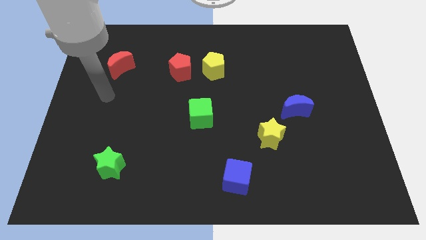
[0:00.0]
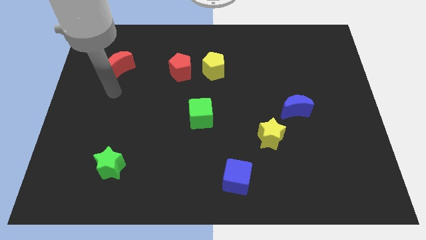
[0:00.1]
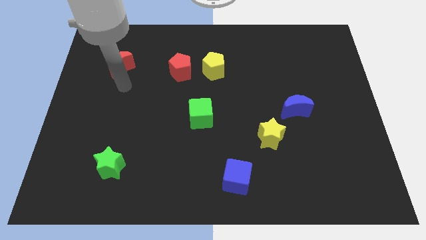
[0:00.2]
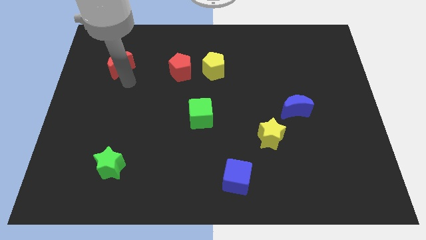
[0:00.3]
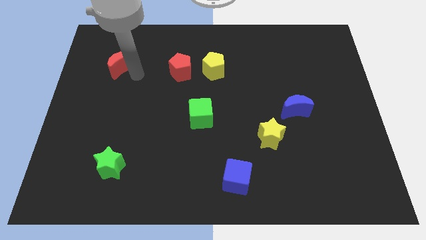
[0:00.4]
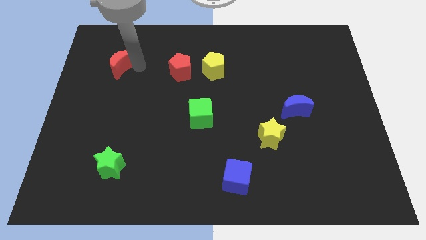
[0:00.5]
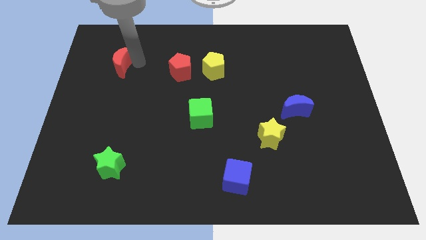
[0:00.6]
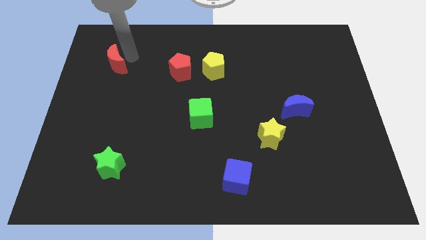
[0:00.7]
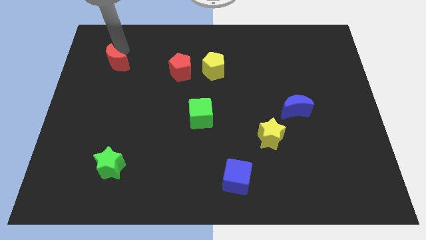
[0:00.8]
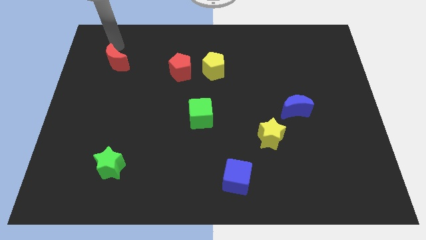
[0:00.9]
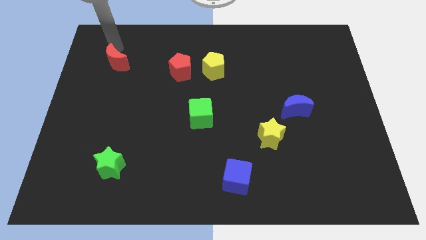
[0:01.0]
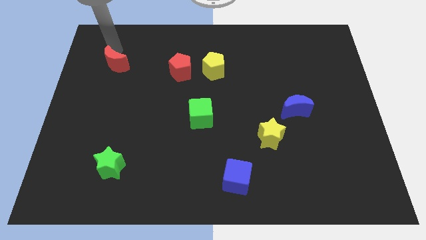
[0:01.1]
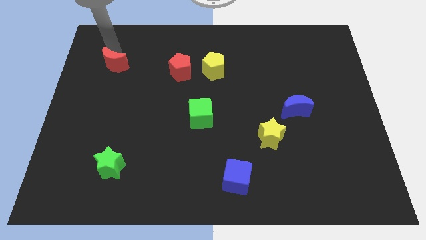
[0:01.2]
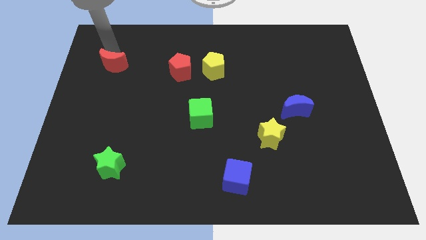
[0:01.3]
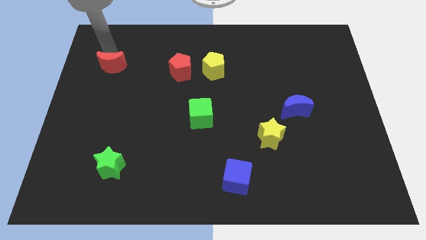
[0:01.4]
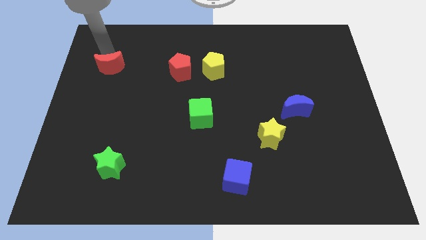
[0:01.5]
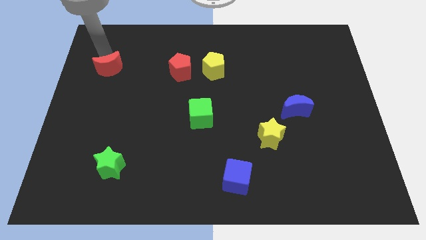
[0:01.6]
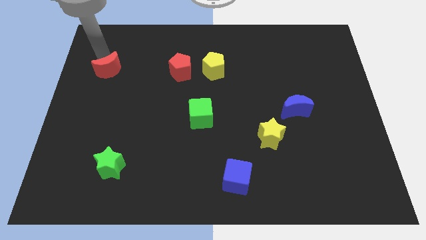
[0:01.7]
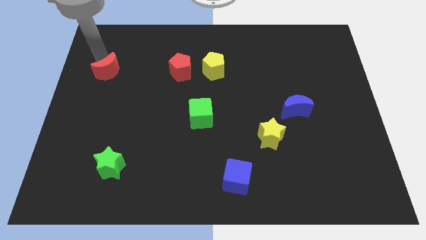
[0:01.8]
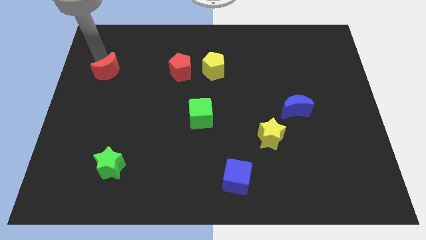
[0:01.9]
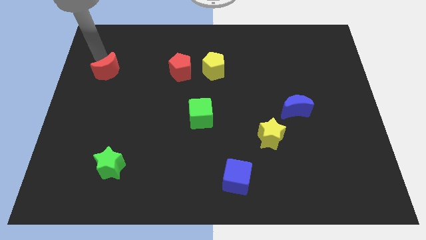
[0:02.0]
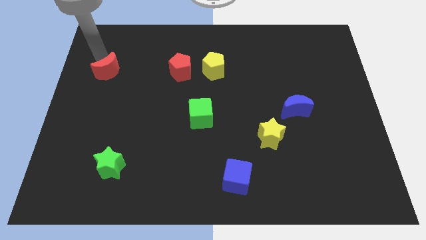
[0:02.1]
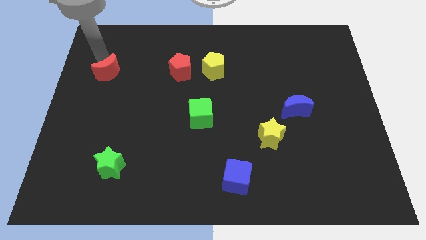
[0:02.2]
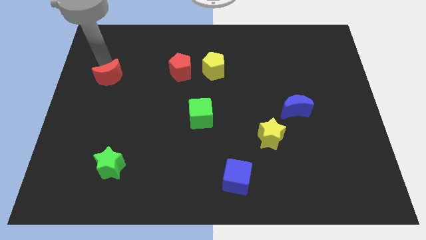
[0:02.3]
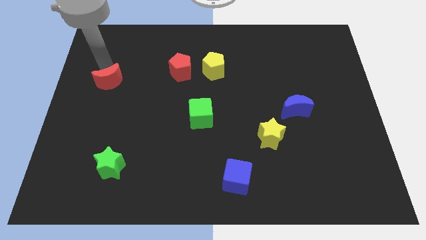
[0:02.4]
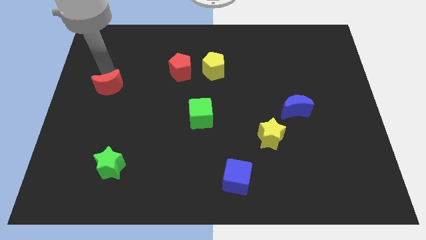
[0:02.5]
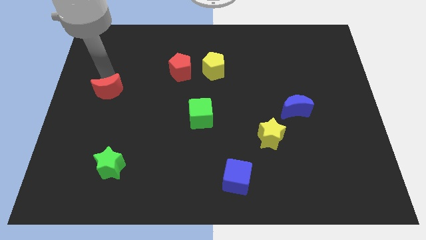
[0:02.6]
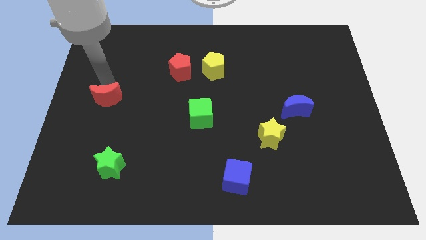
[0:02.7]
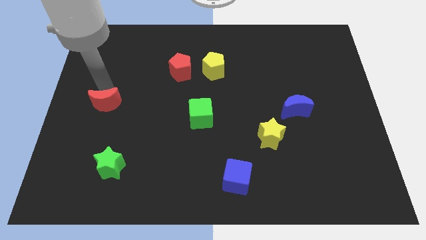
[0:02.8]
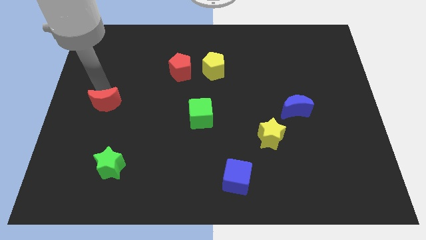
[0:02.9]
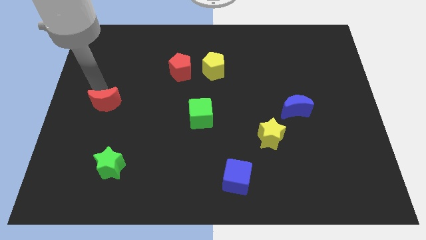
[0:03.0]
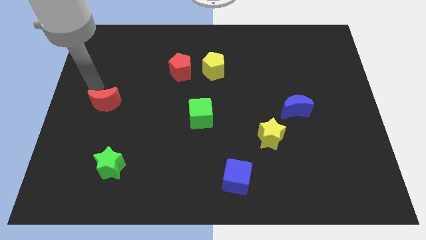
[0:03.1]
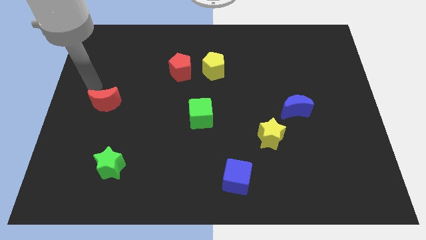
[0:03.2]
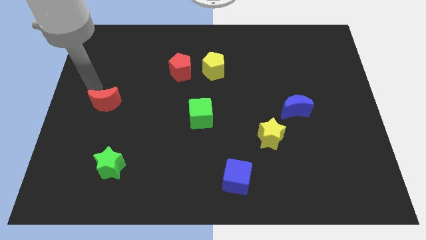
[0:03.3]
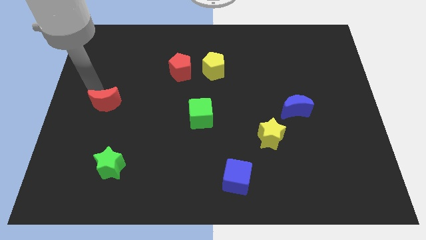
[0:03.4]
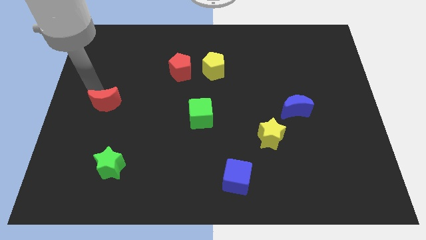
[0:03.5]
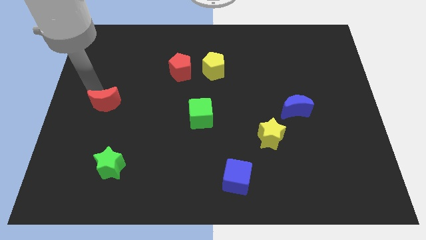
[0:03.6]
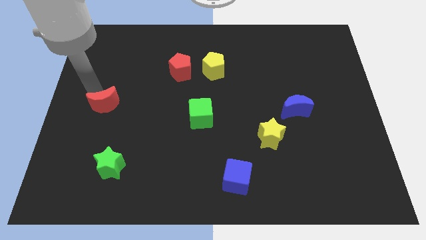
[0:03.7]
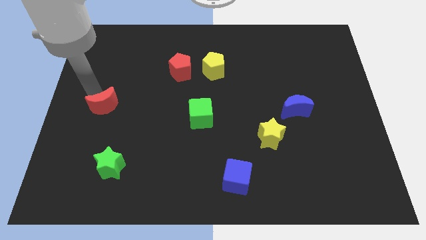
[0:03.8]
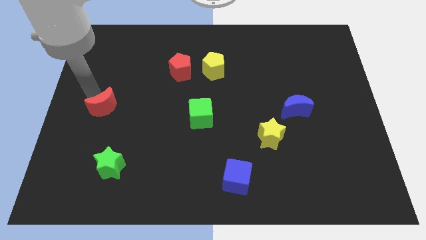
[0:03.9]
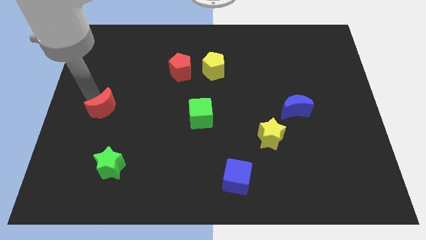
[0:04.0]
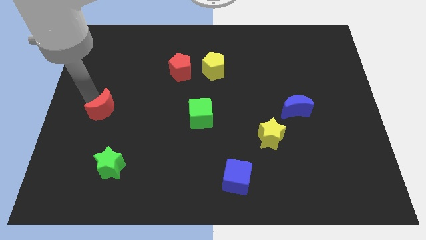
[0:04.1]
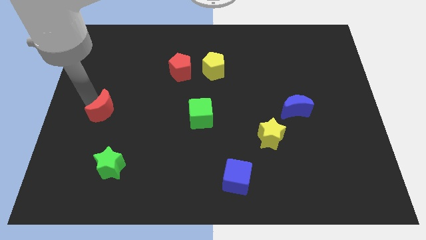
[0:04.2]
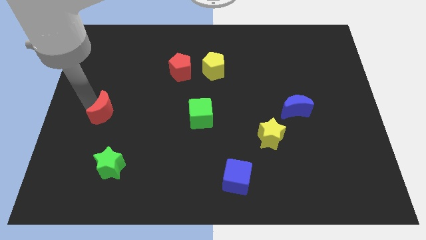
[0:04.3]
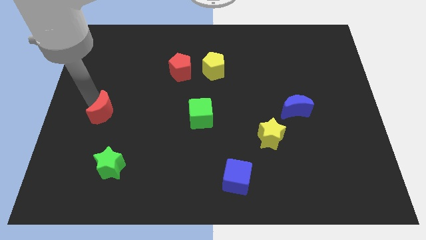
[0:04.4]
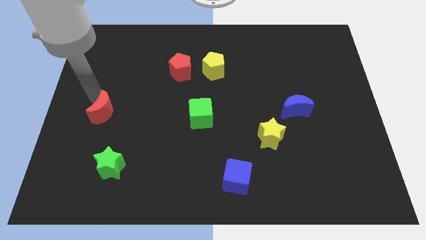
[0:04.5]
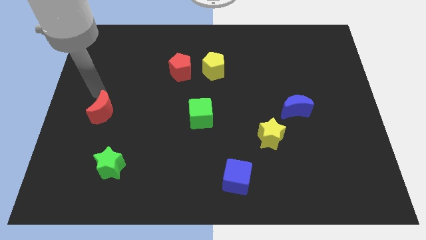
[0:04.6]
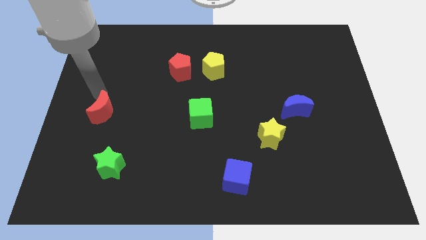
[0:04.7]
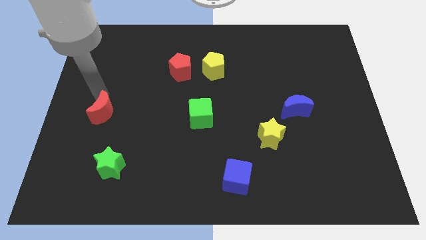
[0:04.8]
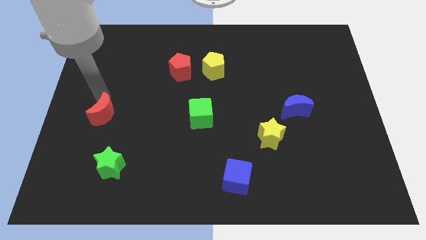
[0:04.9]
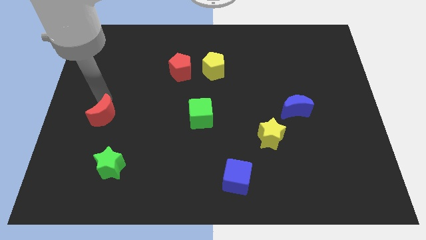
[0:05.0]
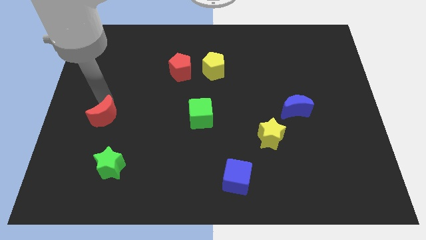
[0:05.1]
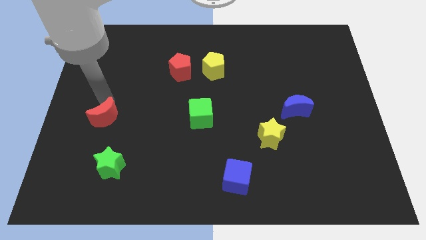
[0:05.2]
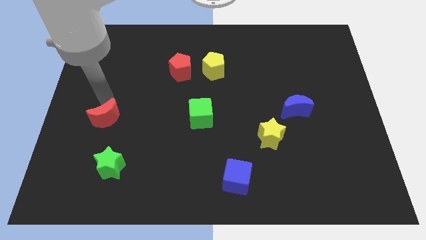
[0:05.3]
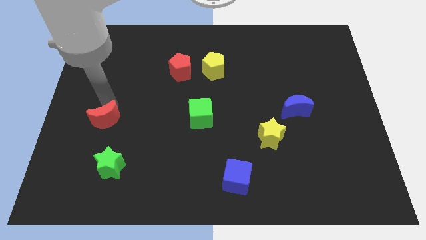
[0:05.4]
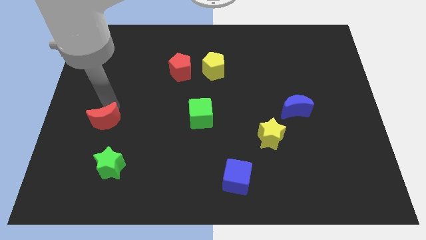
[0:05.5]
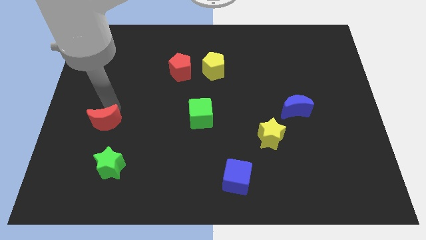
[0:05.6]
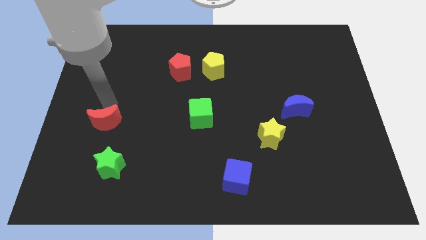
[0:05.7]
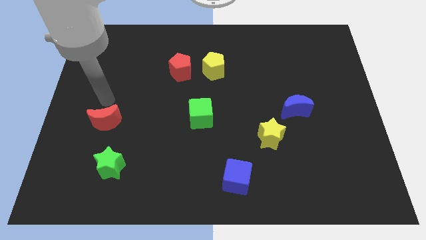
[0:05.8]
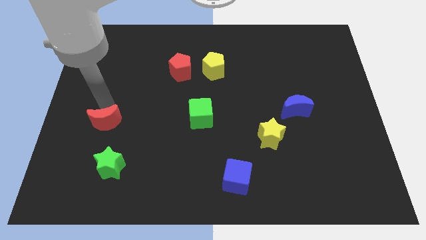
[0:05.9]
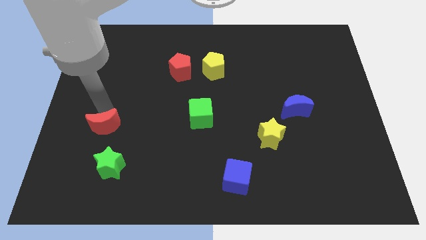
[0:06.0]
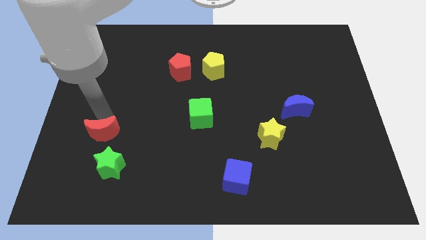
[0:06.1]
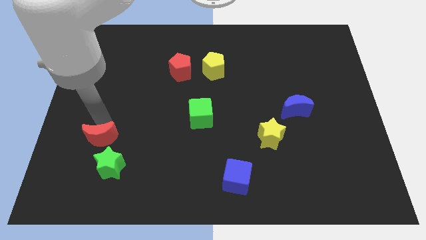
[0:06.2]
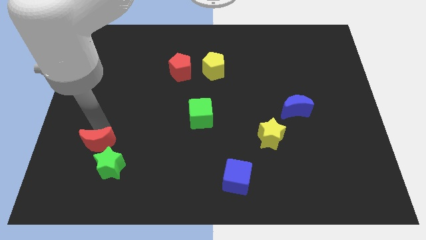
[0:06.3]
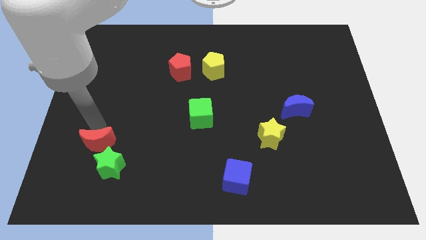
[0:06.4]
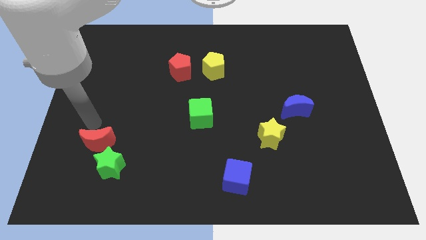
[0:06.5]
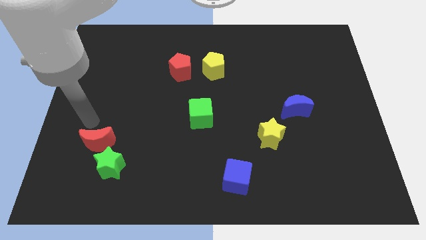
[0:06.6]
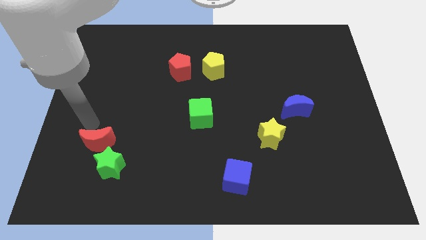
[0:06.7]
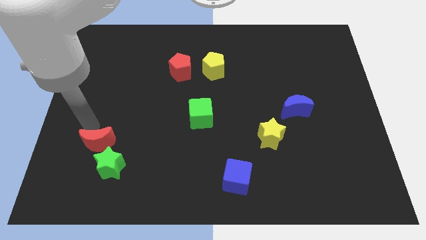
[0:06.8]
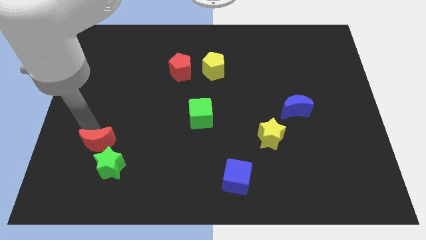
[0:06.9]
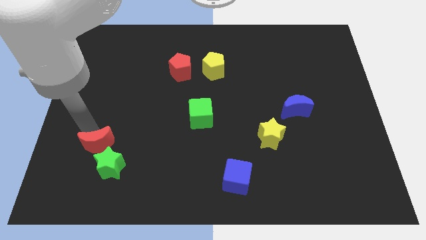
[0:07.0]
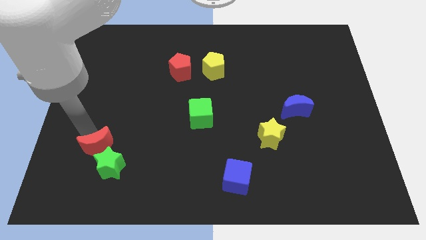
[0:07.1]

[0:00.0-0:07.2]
slide the red moon to the green star

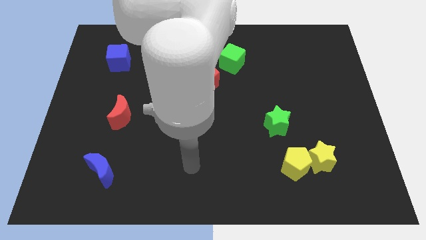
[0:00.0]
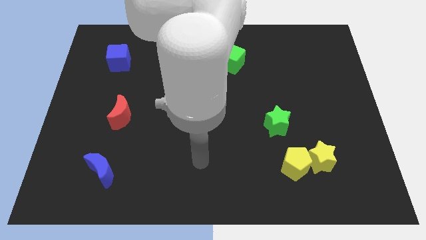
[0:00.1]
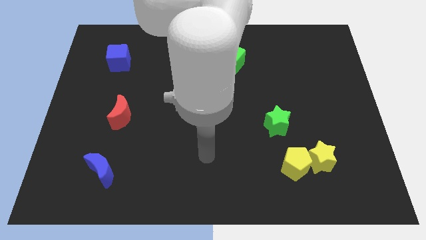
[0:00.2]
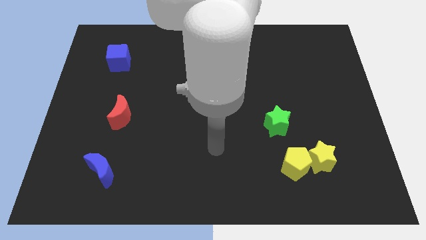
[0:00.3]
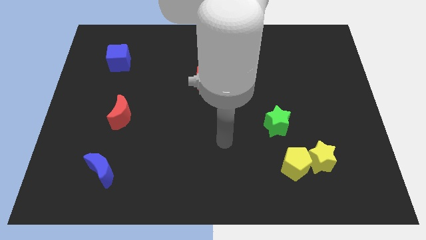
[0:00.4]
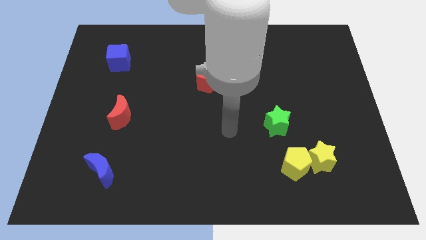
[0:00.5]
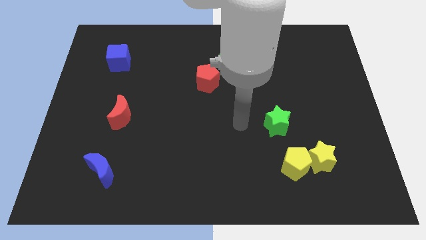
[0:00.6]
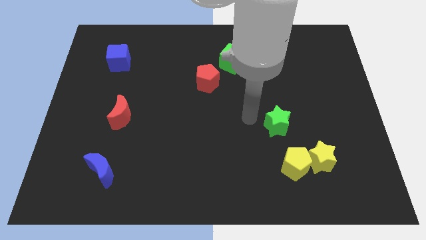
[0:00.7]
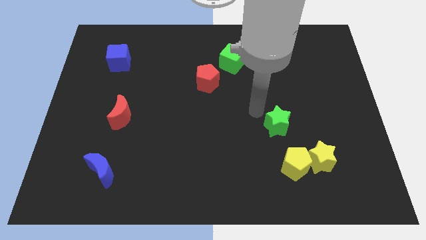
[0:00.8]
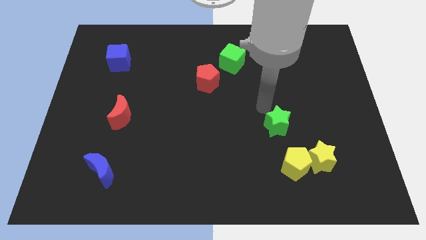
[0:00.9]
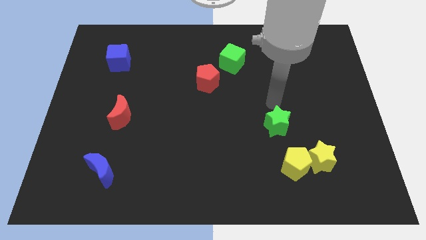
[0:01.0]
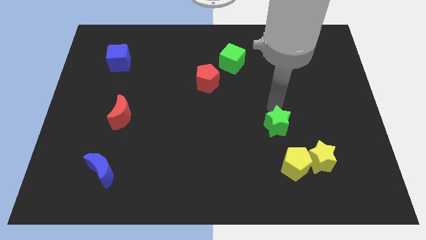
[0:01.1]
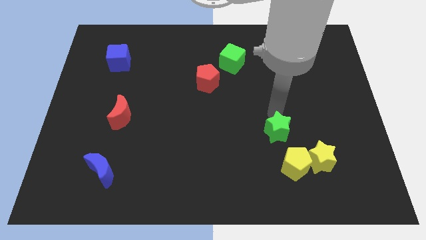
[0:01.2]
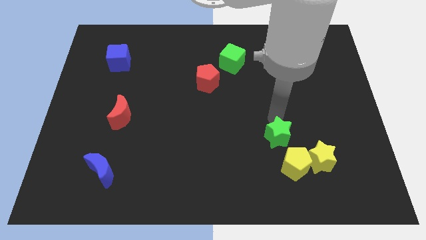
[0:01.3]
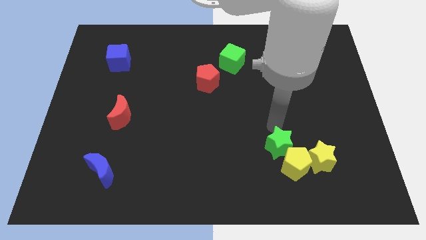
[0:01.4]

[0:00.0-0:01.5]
put the green star next to the yellow pentagon
